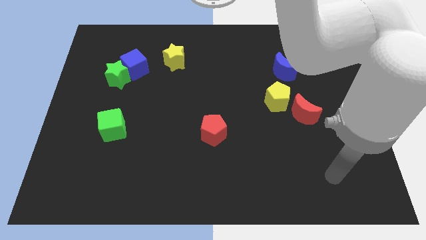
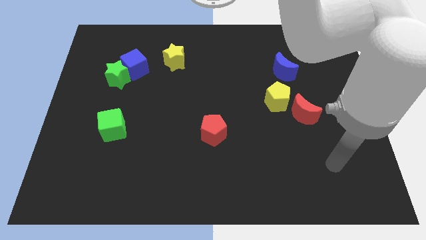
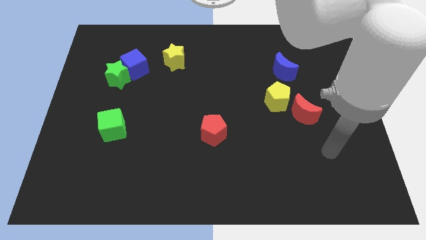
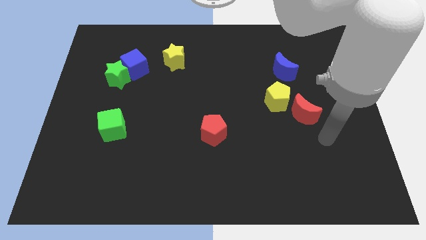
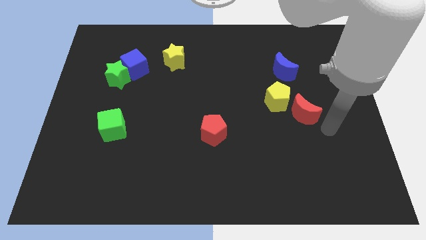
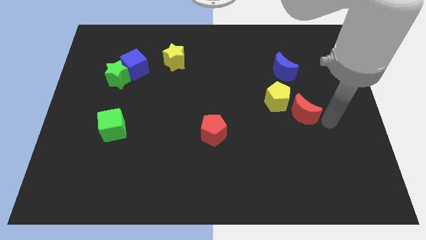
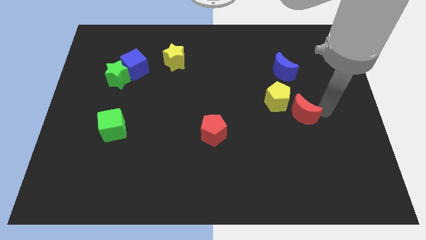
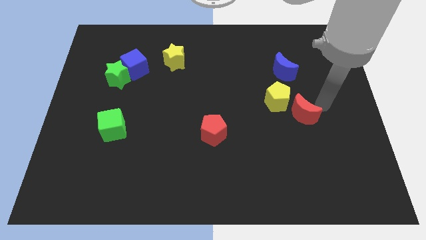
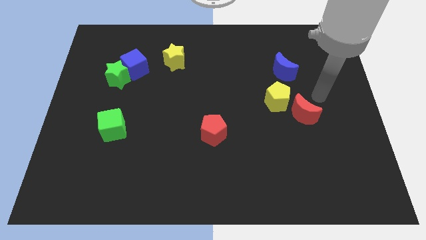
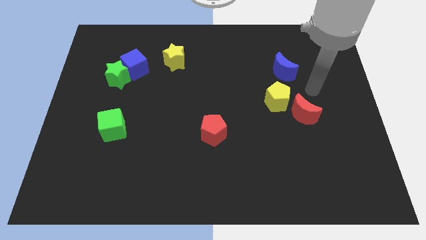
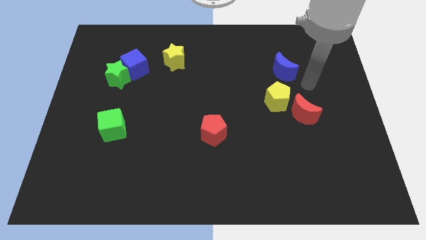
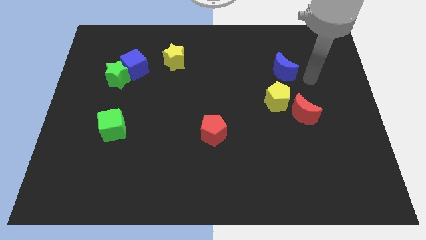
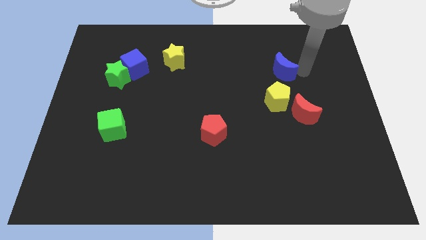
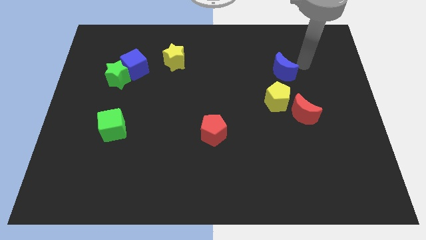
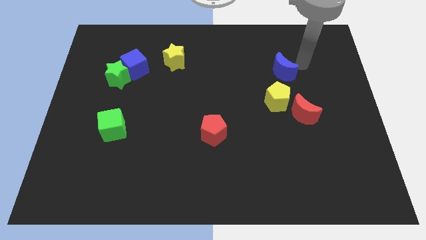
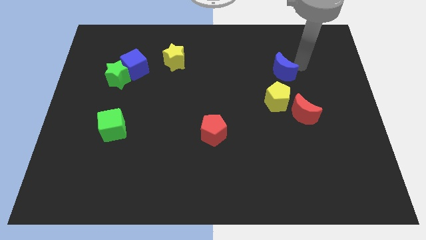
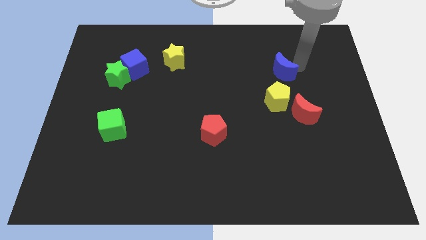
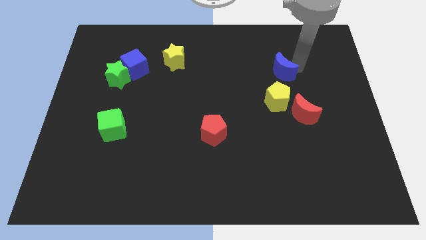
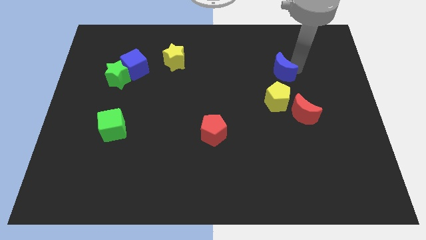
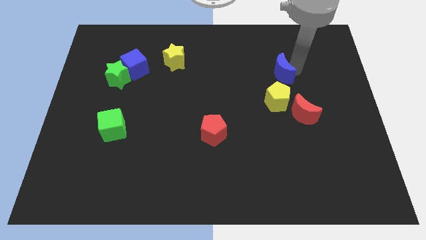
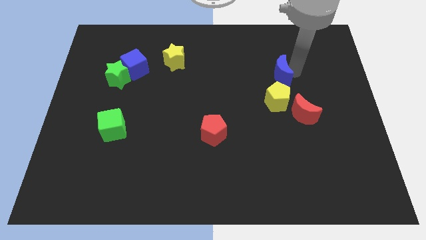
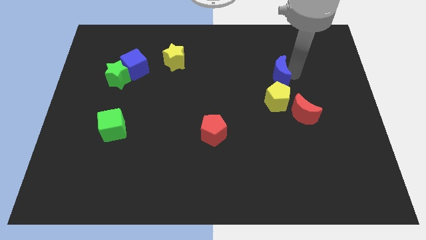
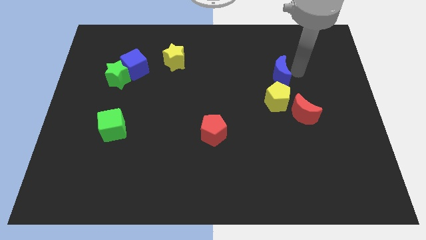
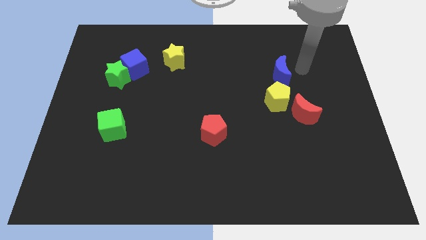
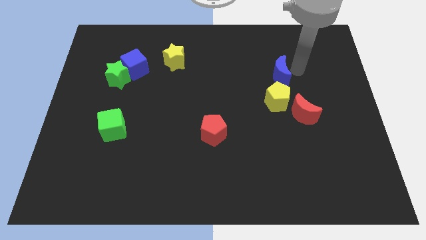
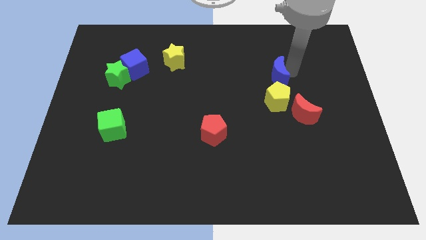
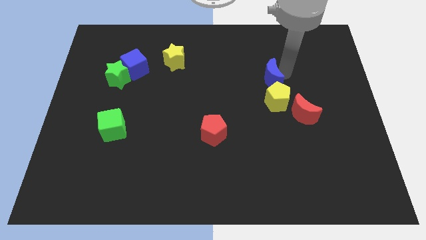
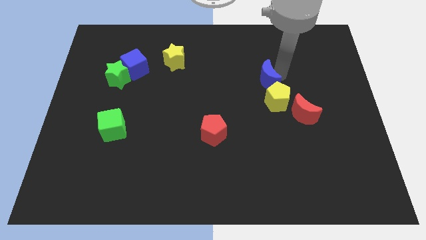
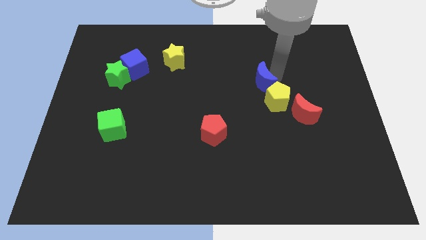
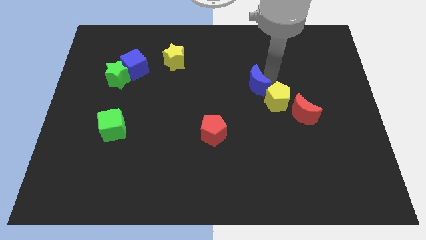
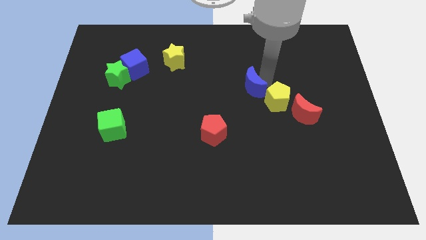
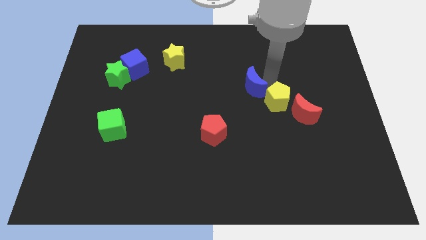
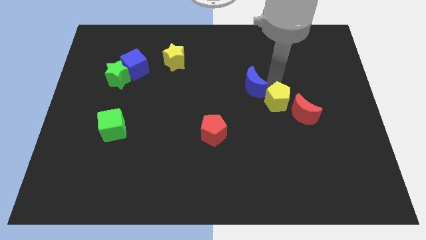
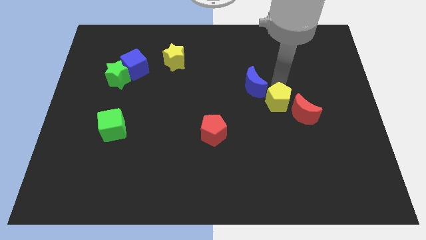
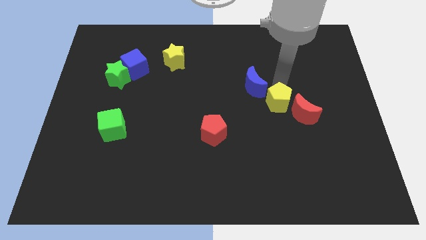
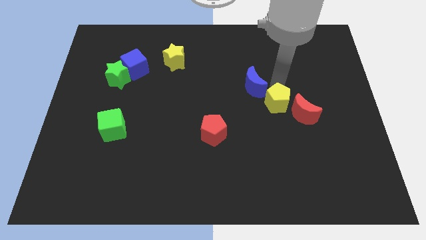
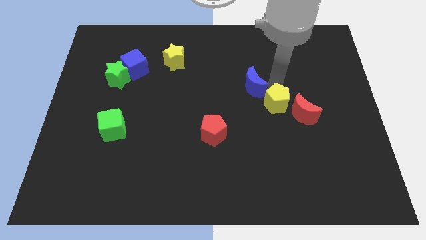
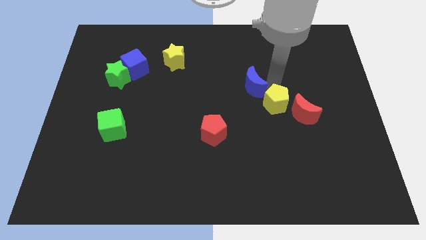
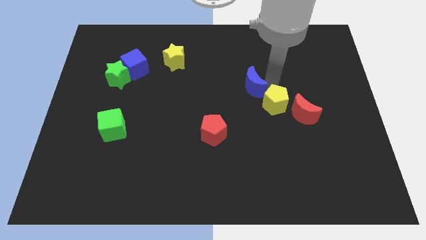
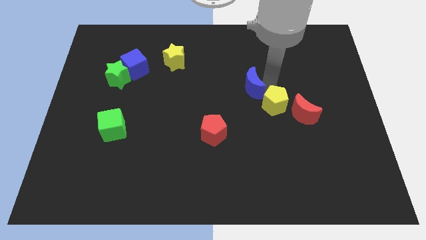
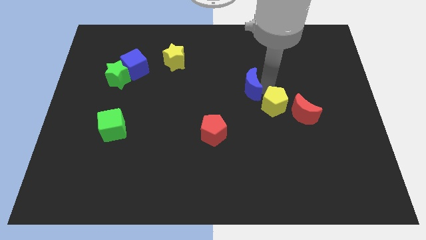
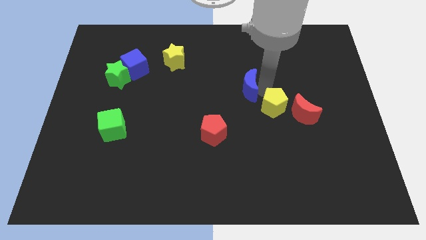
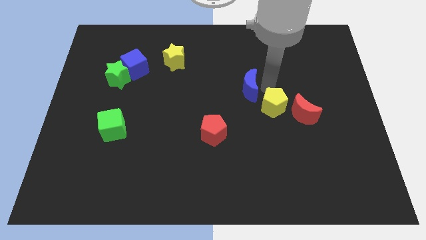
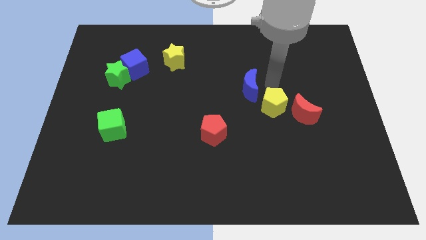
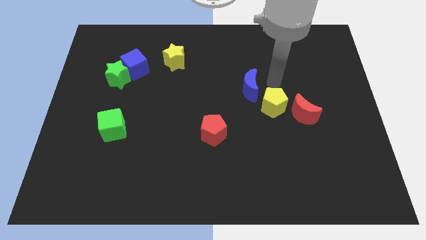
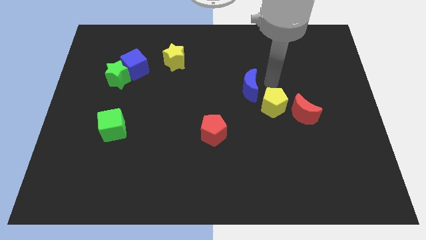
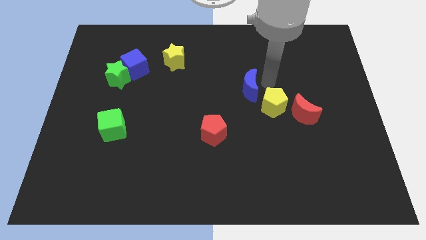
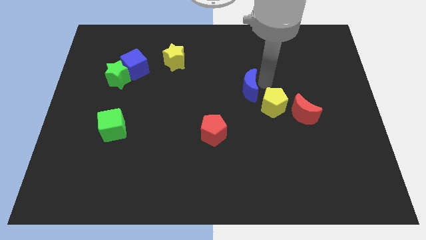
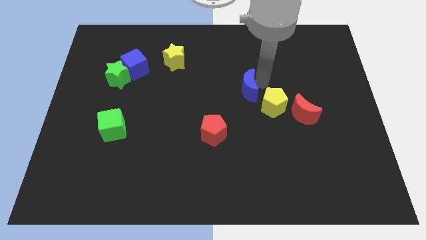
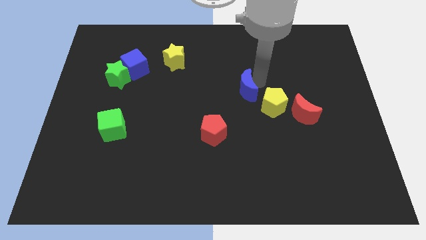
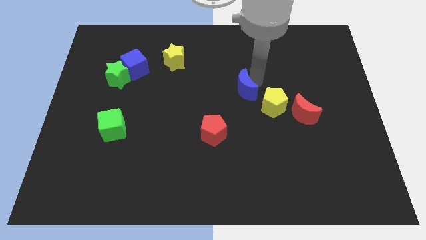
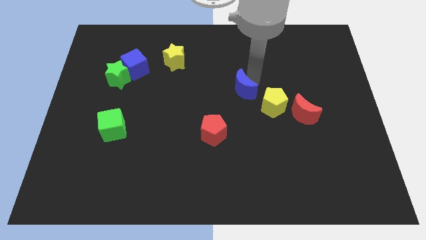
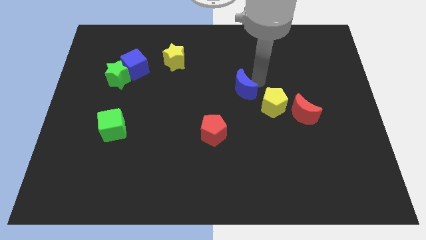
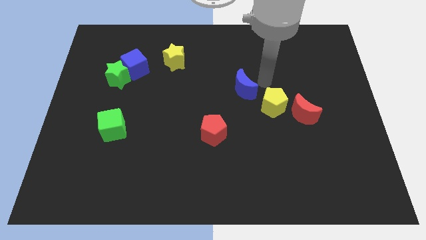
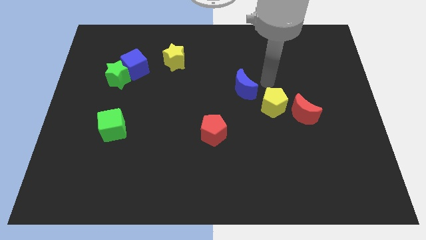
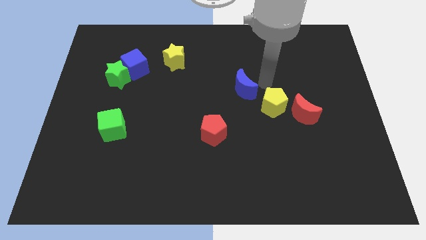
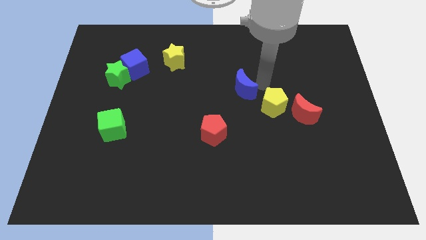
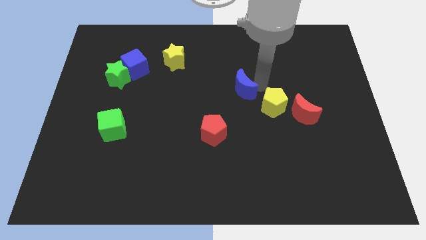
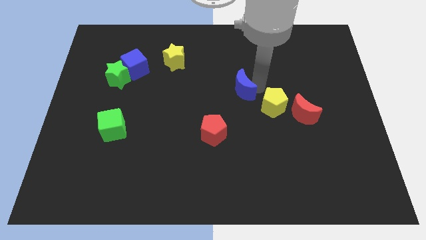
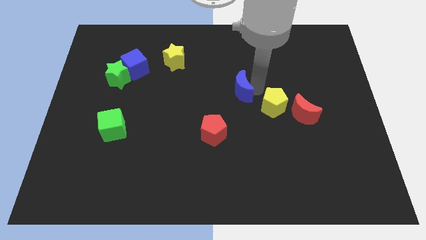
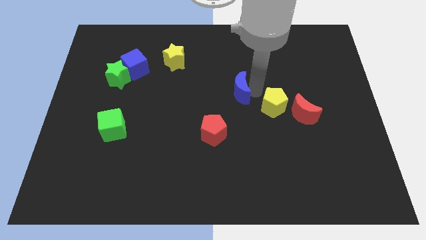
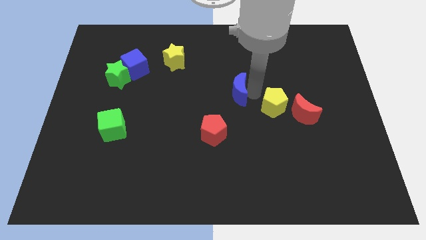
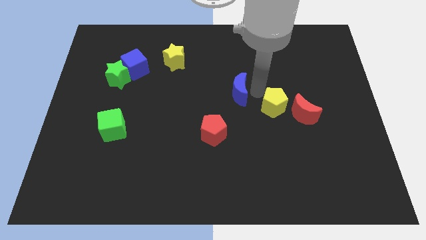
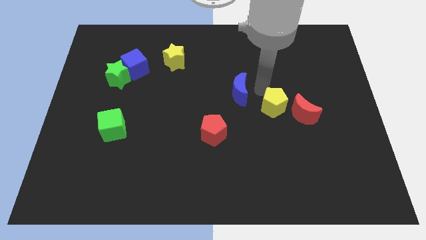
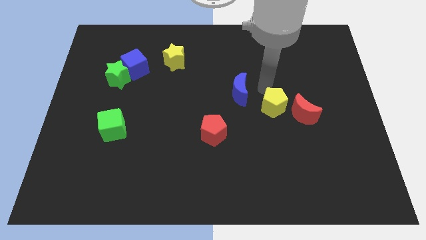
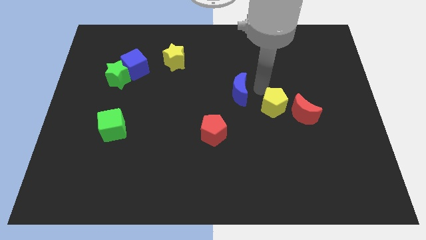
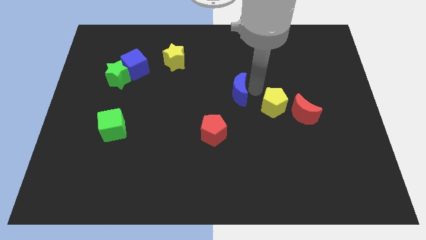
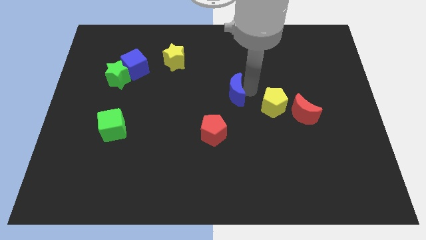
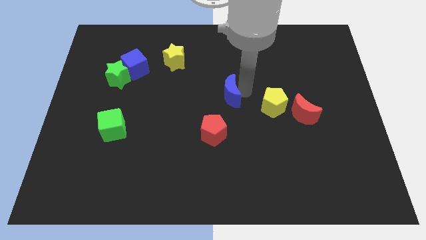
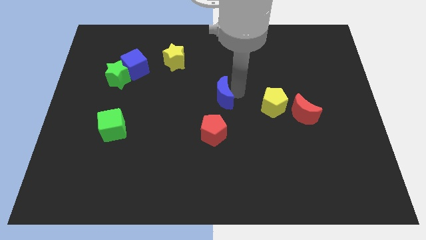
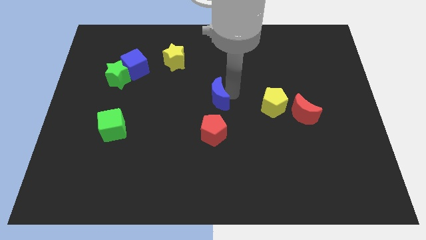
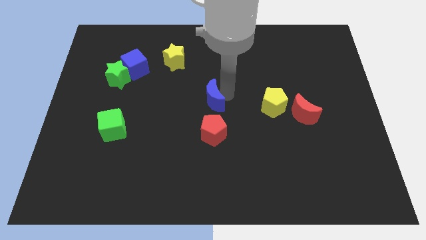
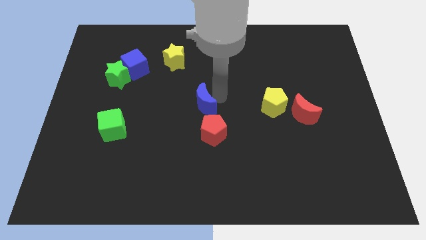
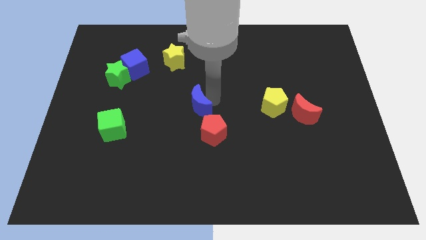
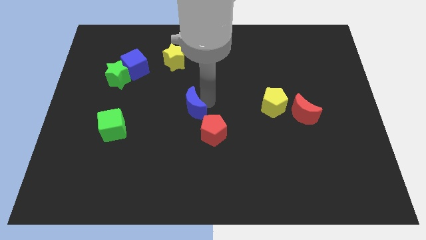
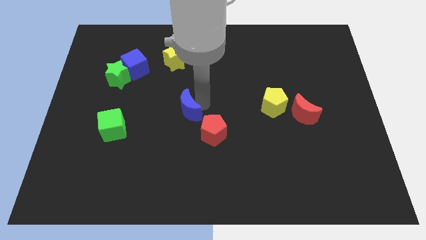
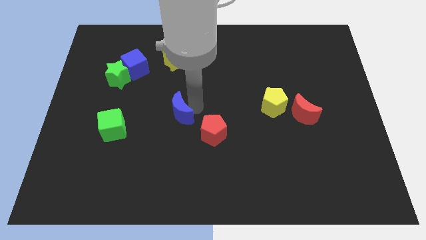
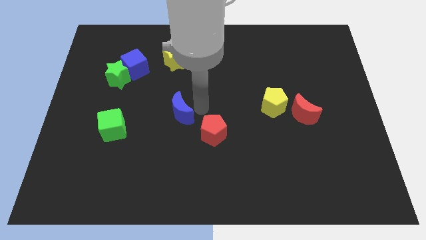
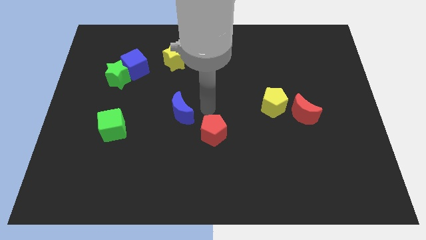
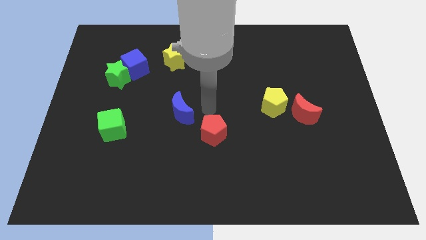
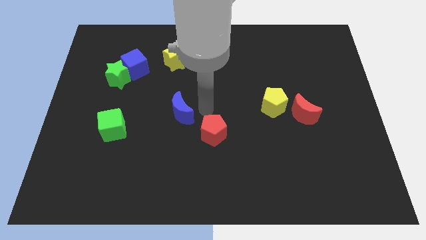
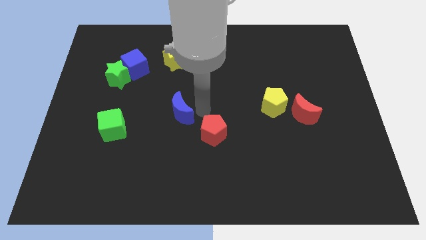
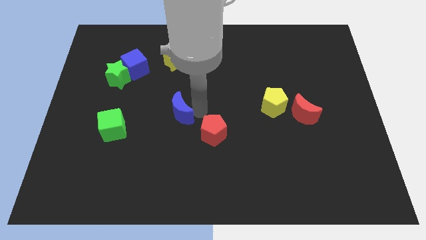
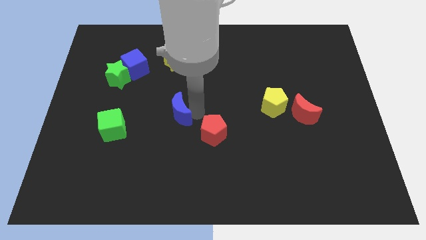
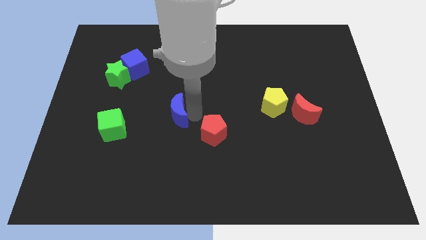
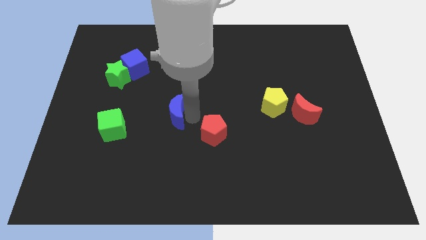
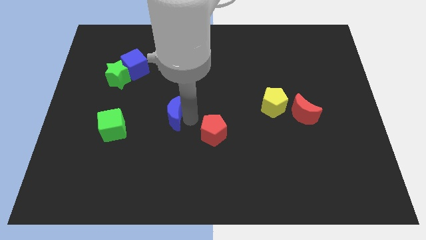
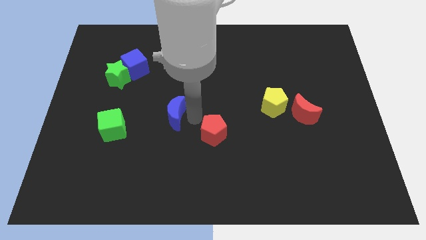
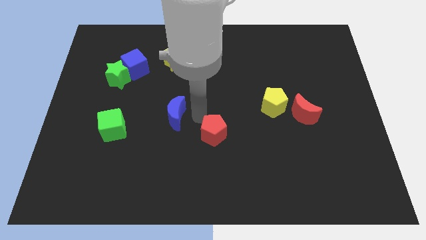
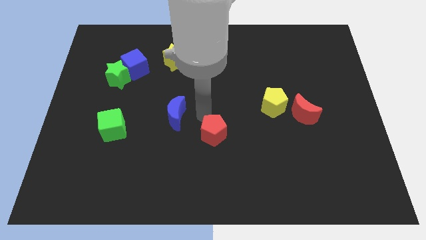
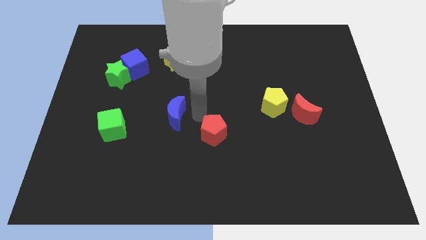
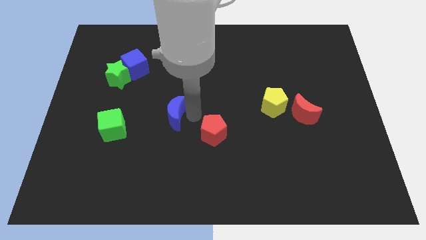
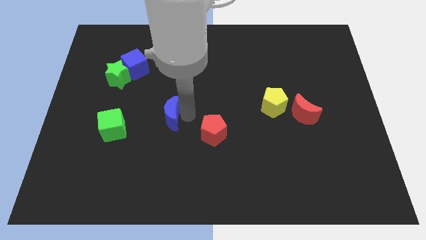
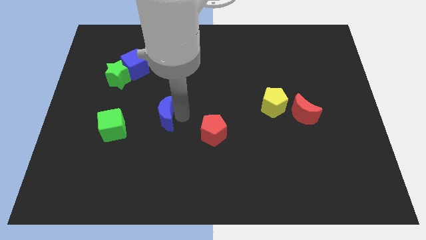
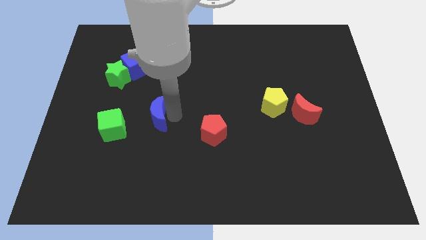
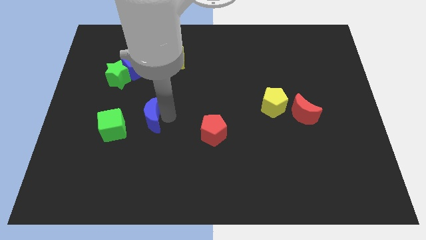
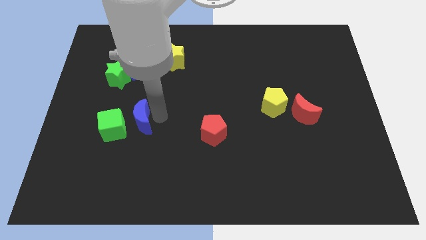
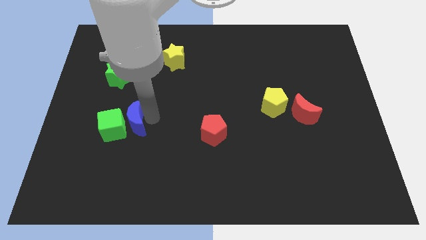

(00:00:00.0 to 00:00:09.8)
push the blue moon towards the green cube
